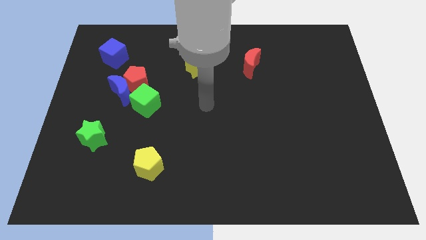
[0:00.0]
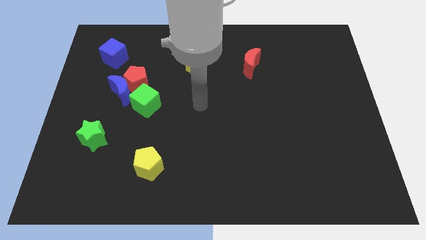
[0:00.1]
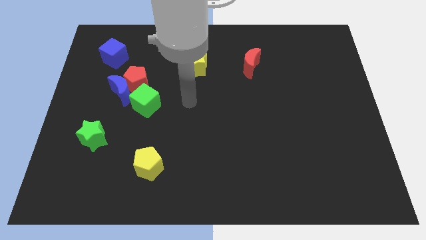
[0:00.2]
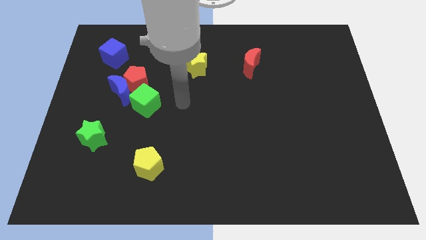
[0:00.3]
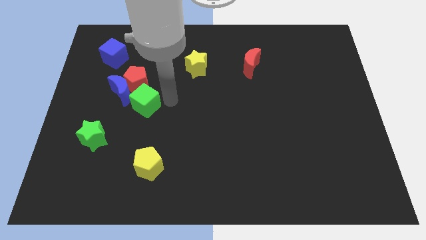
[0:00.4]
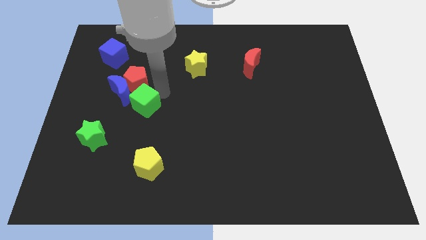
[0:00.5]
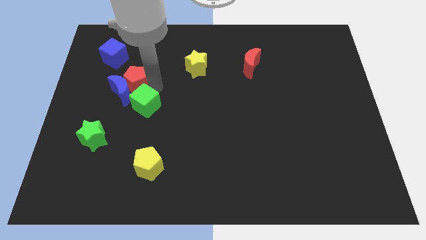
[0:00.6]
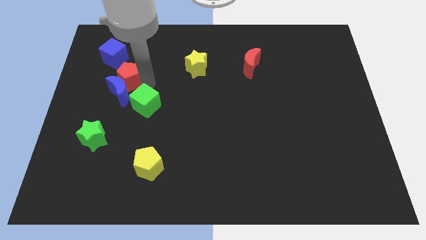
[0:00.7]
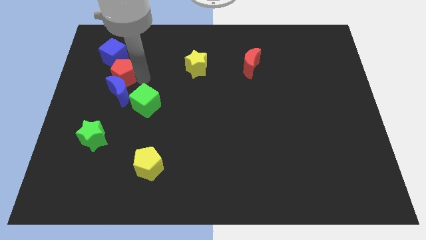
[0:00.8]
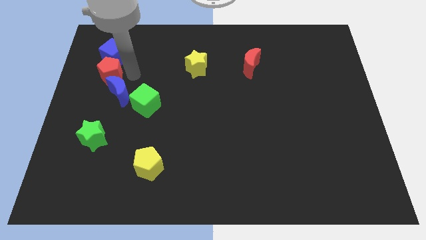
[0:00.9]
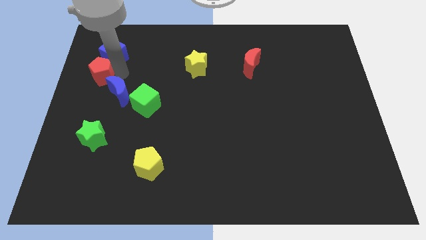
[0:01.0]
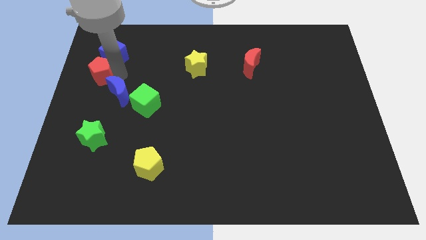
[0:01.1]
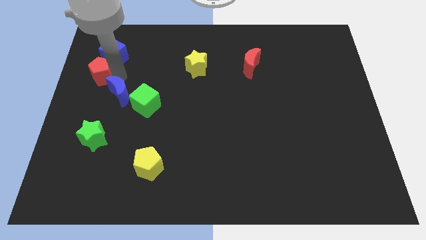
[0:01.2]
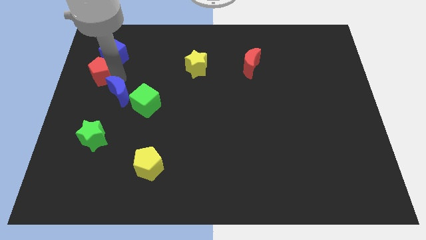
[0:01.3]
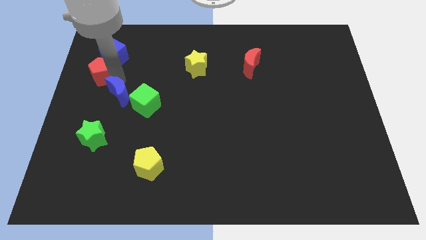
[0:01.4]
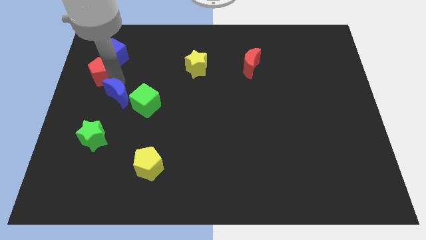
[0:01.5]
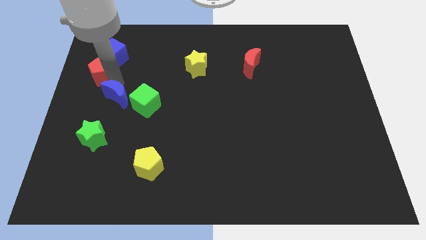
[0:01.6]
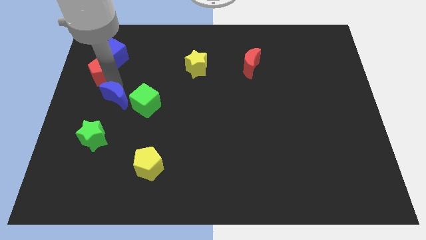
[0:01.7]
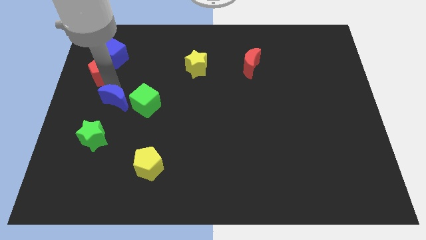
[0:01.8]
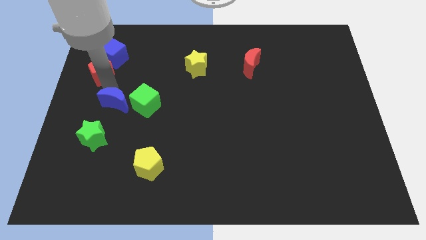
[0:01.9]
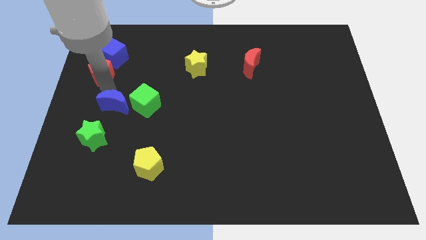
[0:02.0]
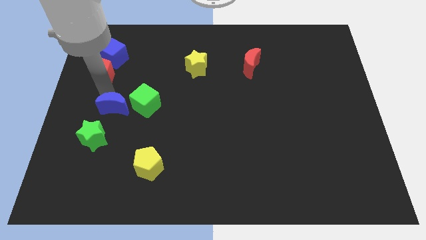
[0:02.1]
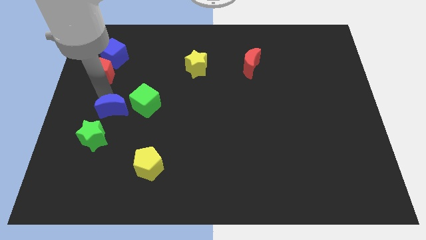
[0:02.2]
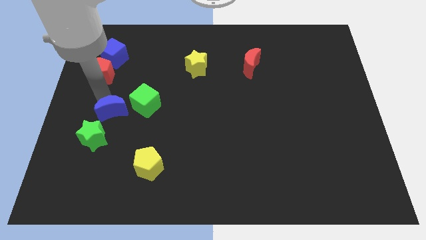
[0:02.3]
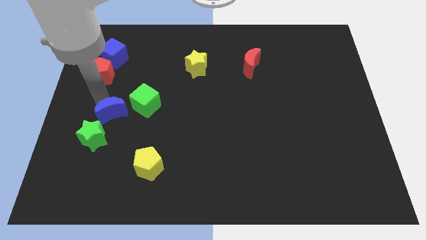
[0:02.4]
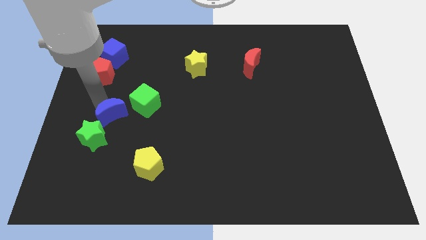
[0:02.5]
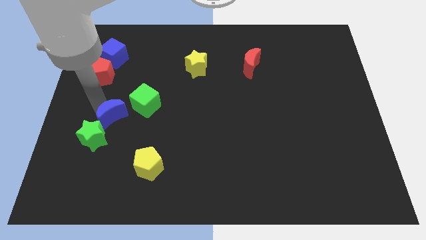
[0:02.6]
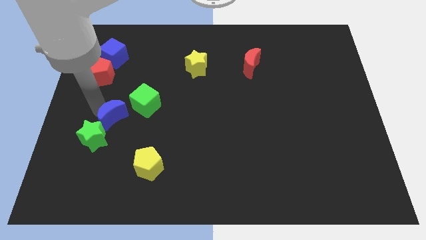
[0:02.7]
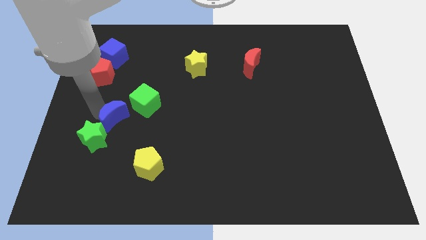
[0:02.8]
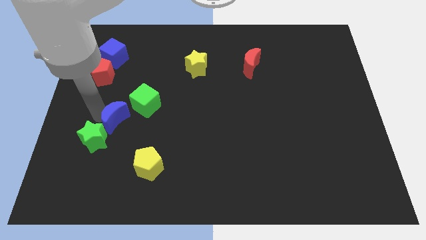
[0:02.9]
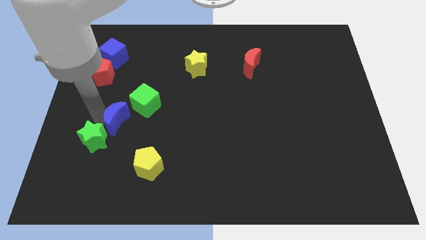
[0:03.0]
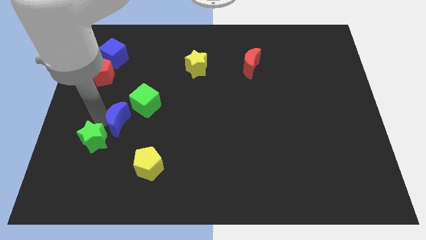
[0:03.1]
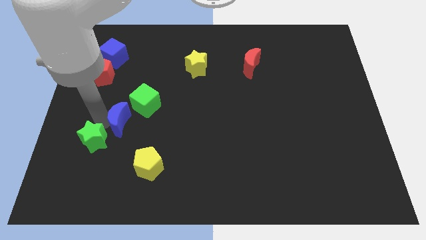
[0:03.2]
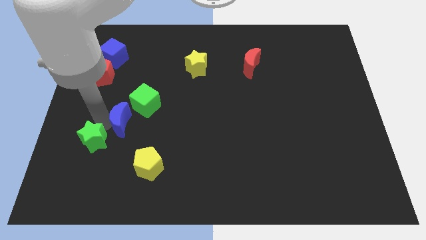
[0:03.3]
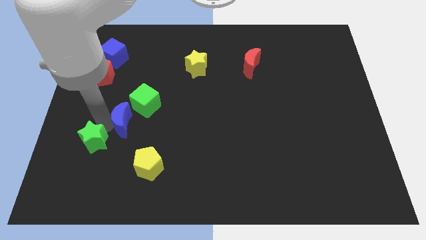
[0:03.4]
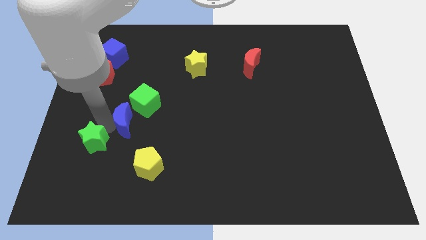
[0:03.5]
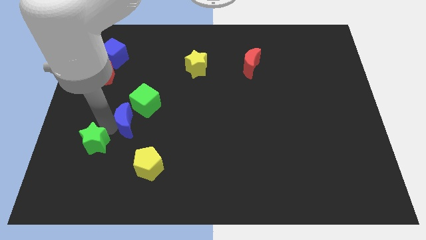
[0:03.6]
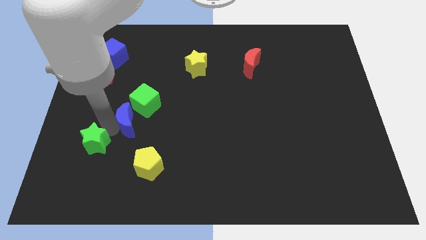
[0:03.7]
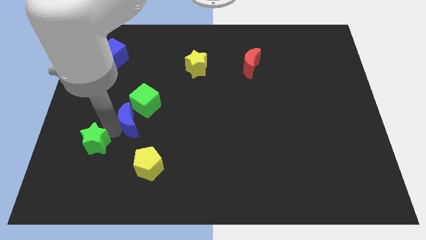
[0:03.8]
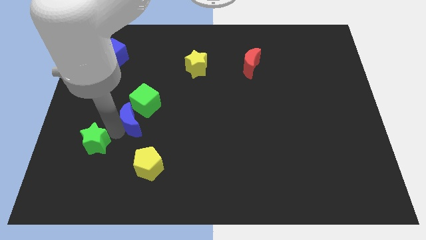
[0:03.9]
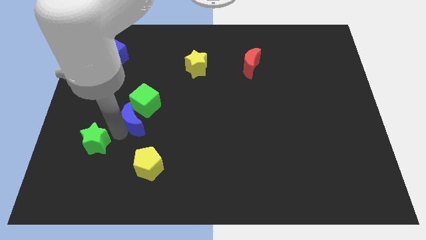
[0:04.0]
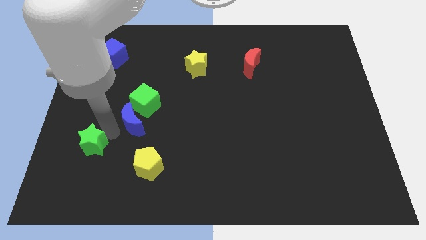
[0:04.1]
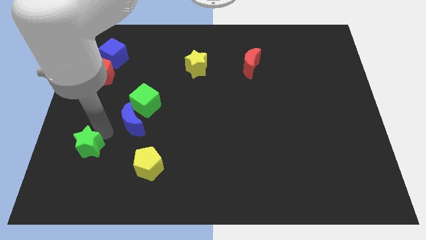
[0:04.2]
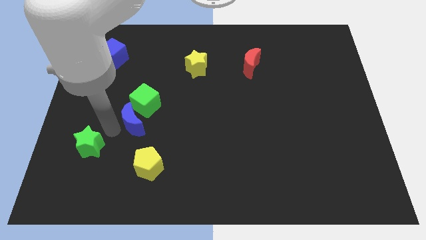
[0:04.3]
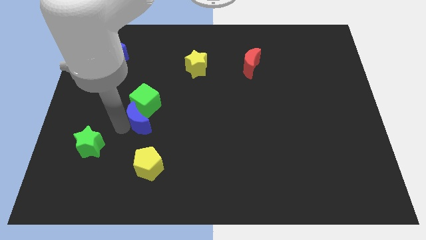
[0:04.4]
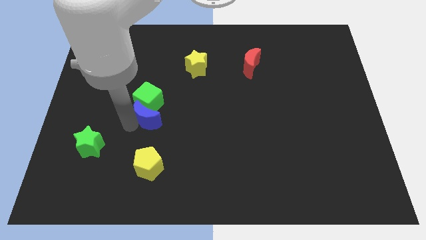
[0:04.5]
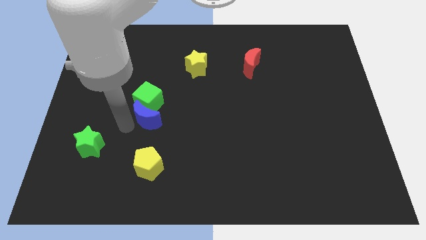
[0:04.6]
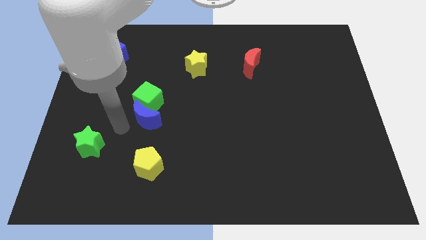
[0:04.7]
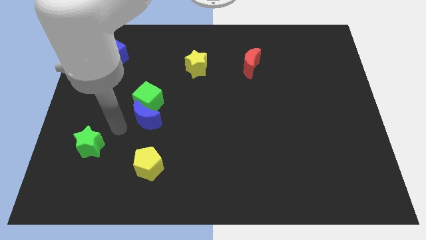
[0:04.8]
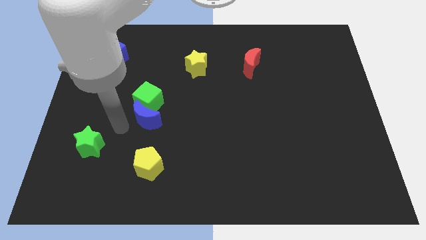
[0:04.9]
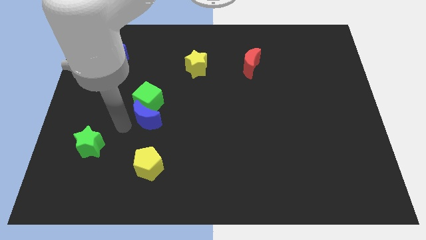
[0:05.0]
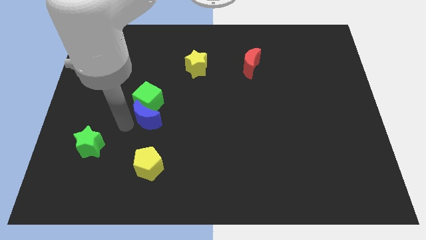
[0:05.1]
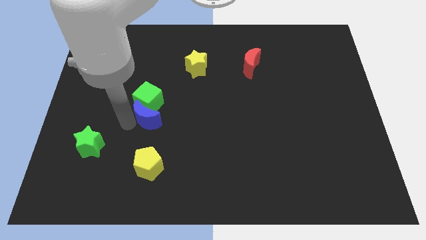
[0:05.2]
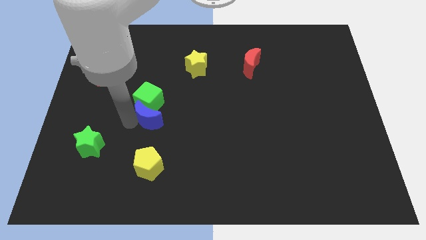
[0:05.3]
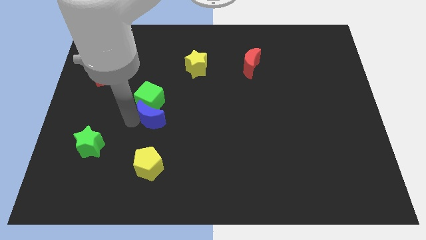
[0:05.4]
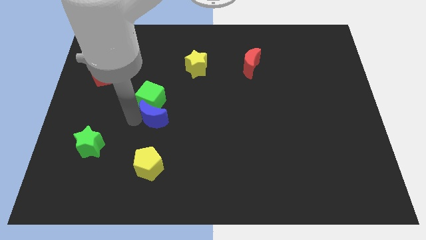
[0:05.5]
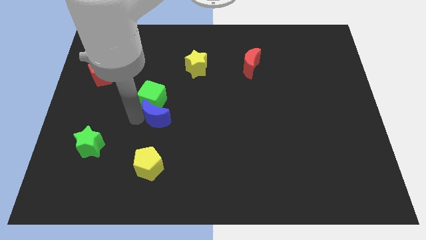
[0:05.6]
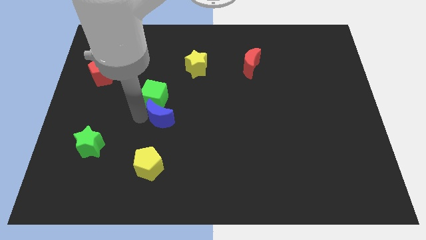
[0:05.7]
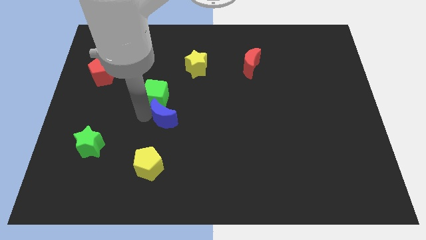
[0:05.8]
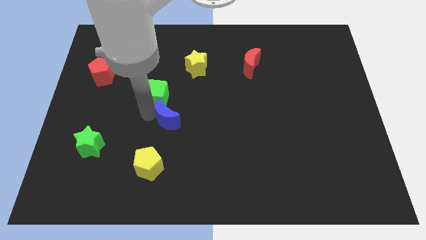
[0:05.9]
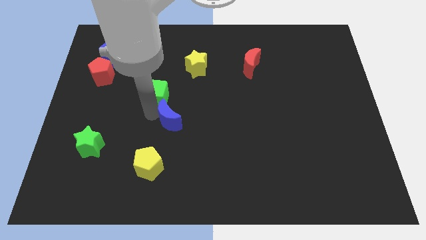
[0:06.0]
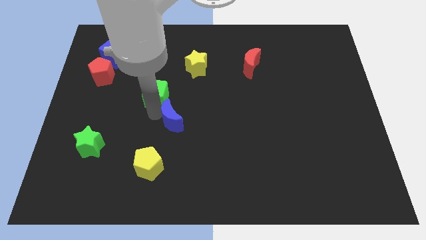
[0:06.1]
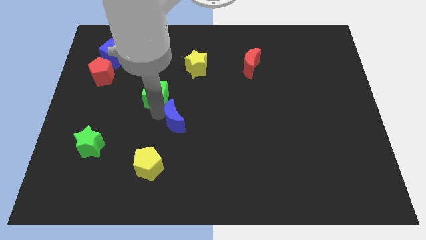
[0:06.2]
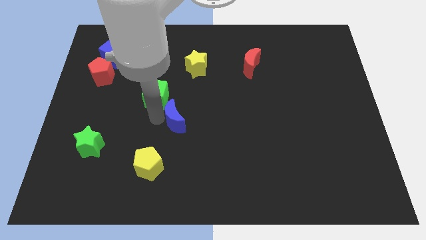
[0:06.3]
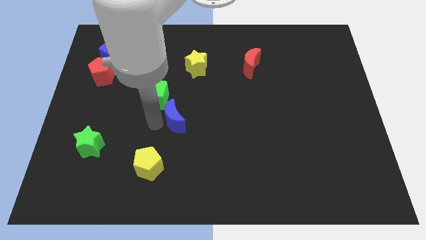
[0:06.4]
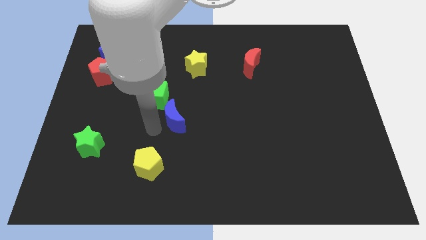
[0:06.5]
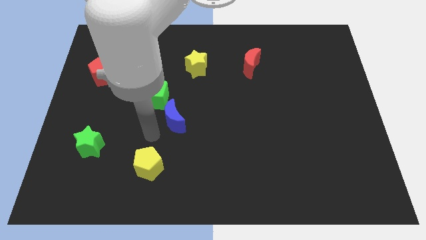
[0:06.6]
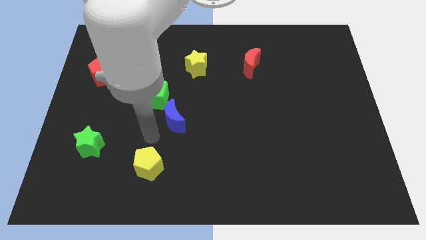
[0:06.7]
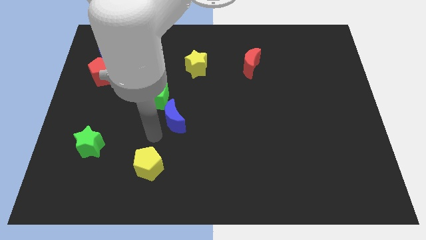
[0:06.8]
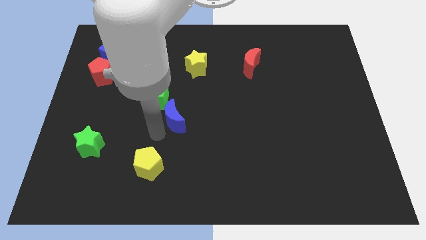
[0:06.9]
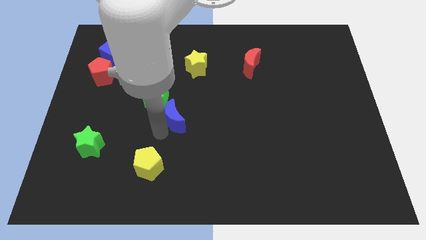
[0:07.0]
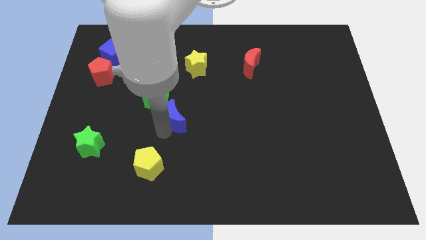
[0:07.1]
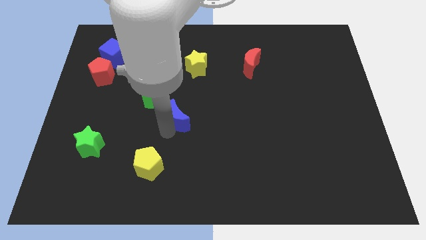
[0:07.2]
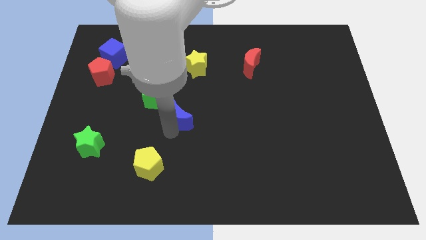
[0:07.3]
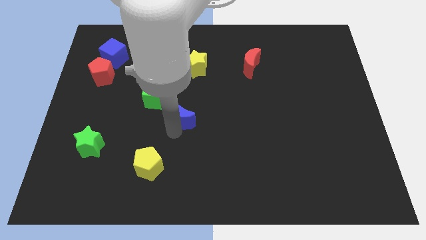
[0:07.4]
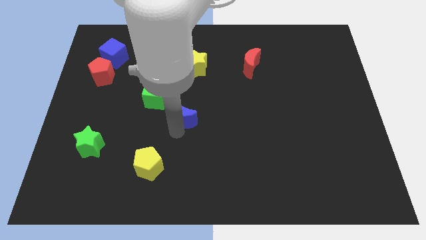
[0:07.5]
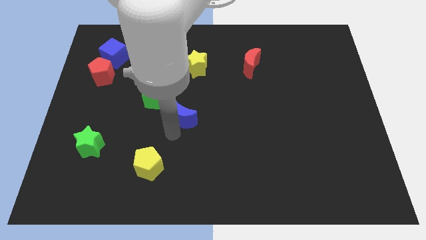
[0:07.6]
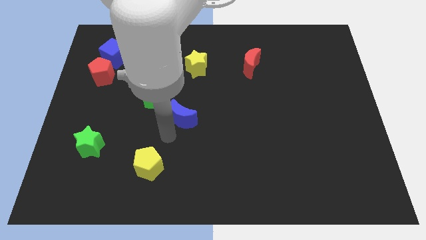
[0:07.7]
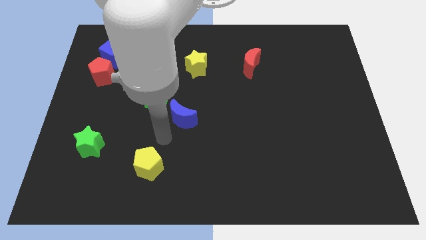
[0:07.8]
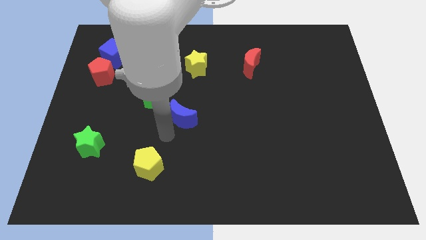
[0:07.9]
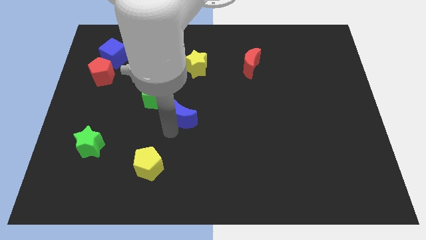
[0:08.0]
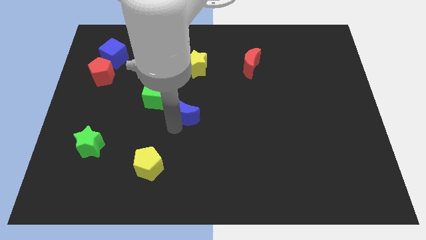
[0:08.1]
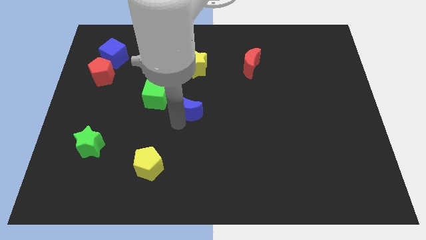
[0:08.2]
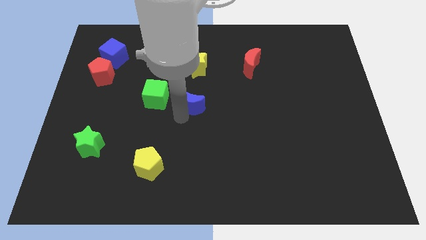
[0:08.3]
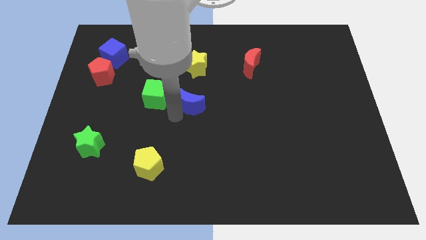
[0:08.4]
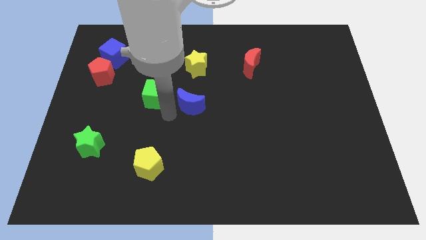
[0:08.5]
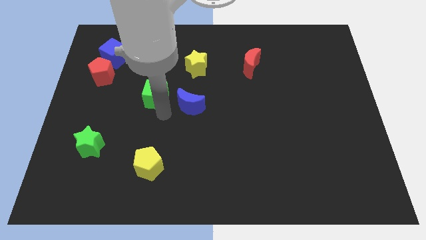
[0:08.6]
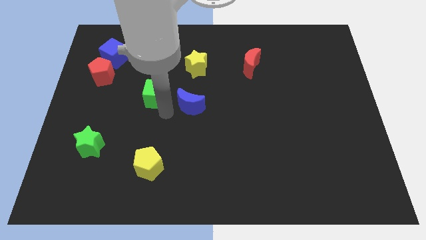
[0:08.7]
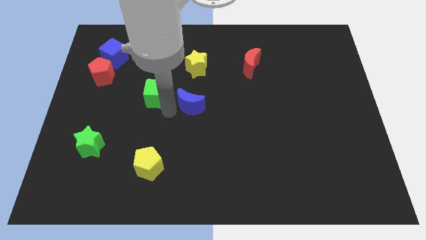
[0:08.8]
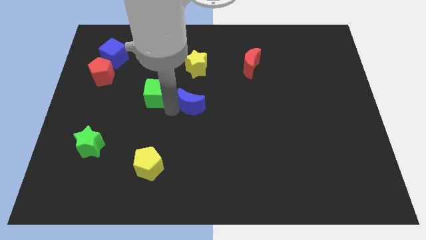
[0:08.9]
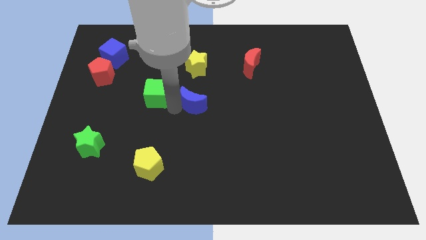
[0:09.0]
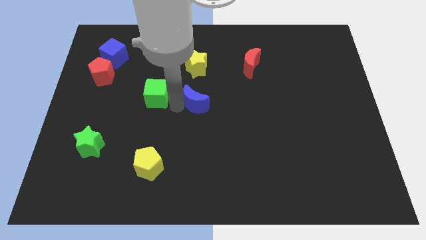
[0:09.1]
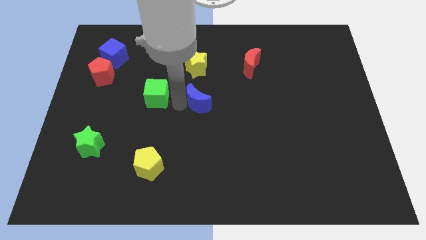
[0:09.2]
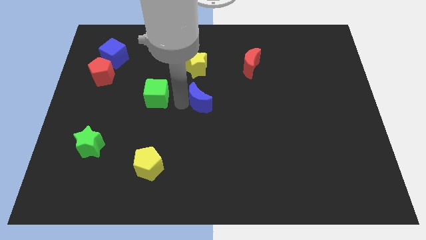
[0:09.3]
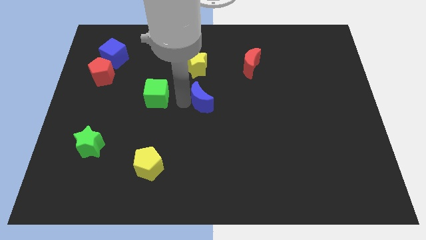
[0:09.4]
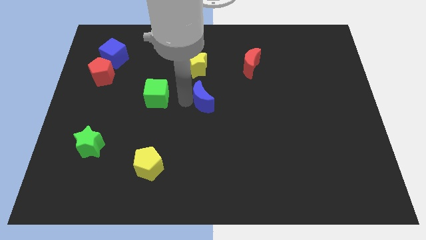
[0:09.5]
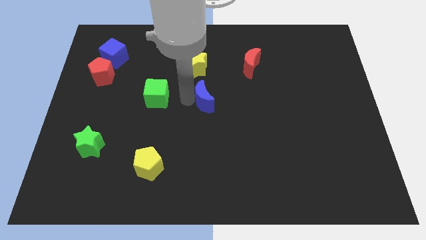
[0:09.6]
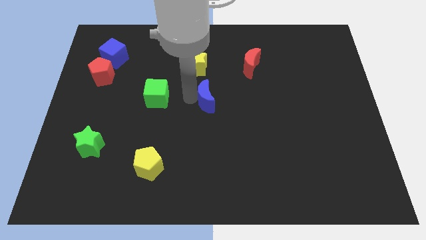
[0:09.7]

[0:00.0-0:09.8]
slide the blue moon to the right
